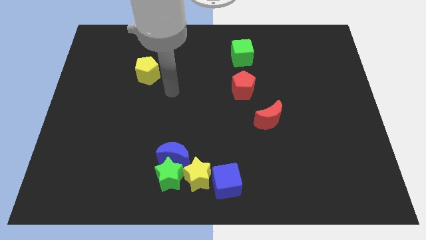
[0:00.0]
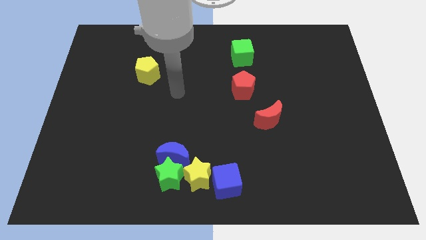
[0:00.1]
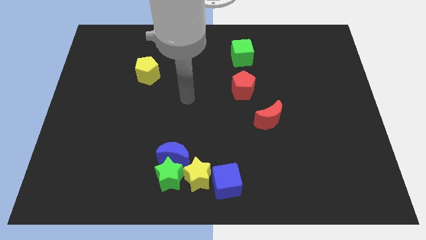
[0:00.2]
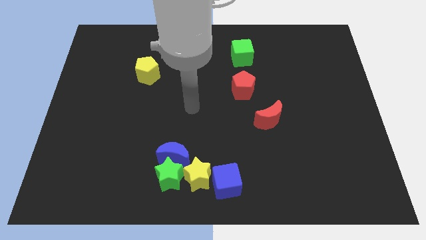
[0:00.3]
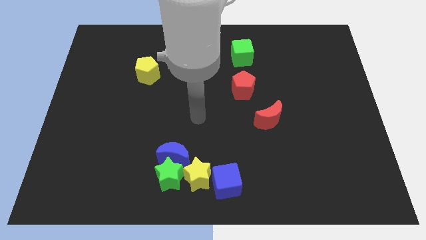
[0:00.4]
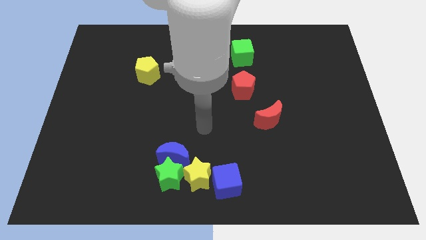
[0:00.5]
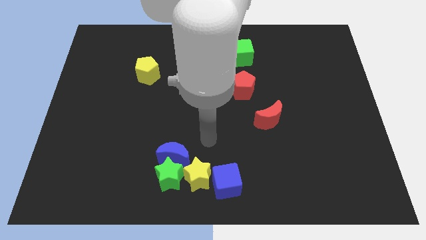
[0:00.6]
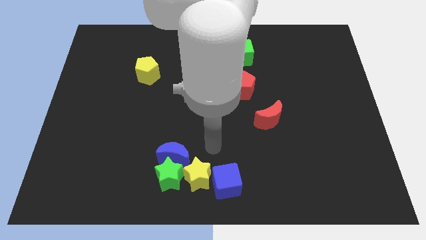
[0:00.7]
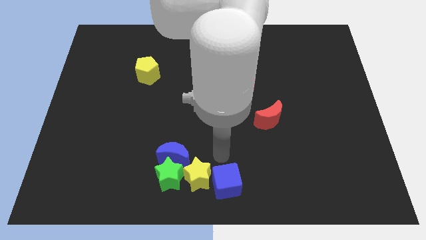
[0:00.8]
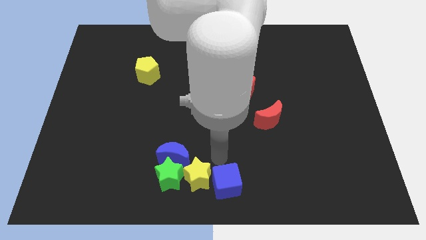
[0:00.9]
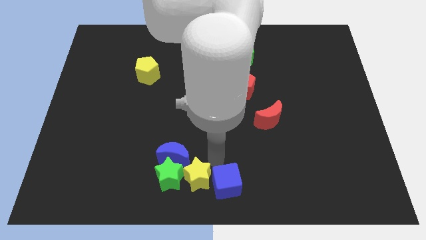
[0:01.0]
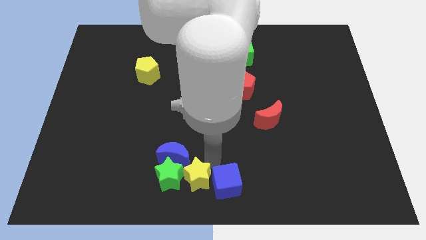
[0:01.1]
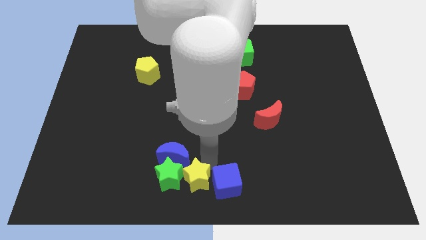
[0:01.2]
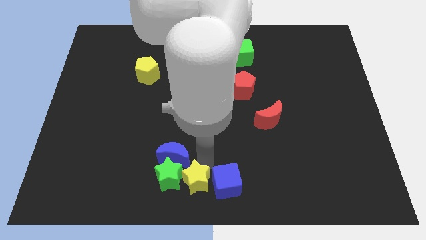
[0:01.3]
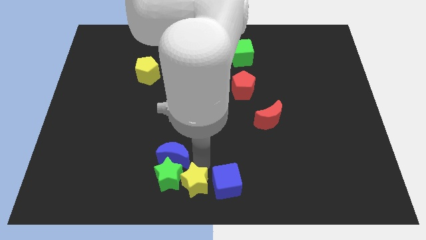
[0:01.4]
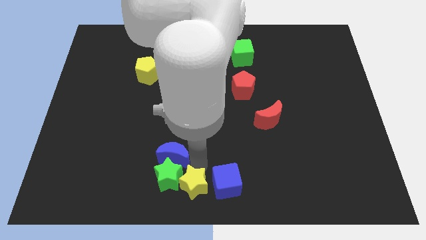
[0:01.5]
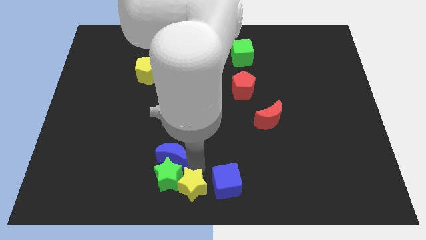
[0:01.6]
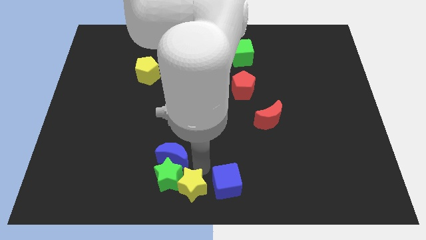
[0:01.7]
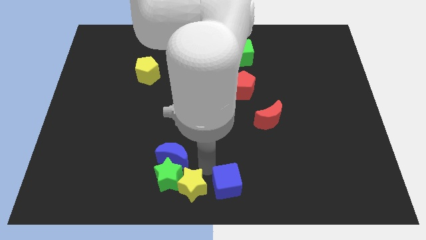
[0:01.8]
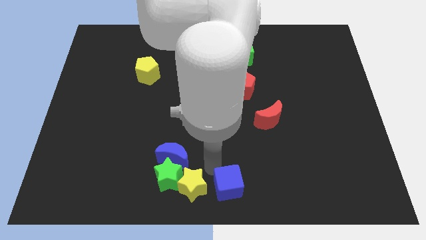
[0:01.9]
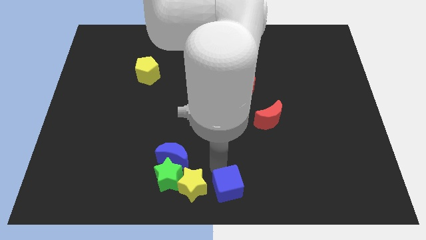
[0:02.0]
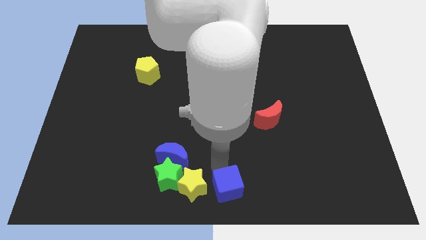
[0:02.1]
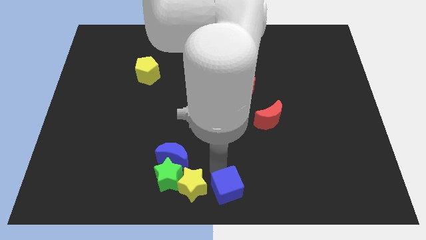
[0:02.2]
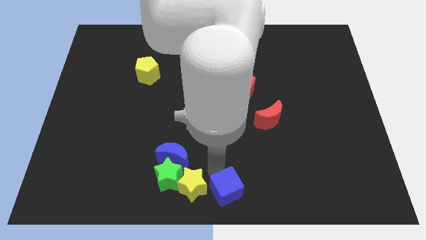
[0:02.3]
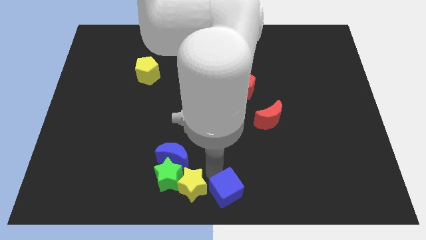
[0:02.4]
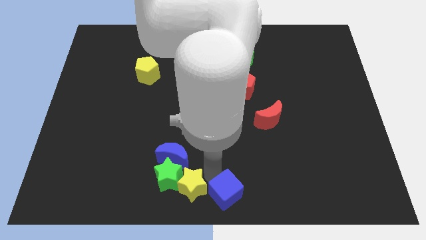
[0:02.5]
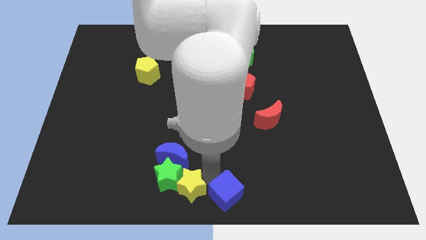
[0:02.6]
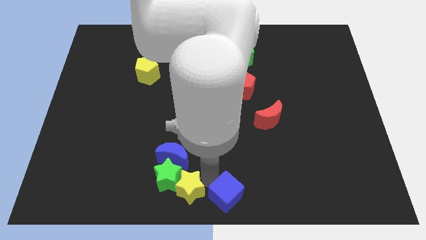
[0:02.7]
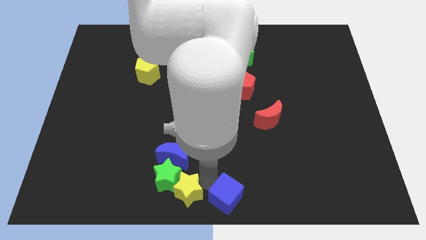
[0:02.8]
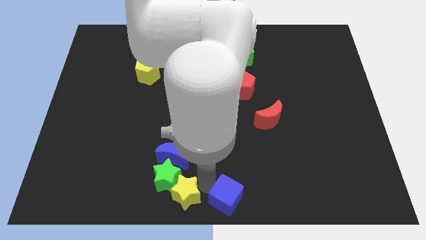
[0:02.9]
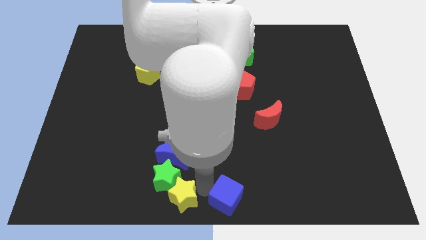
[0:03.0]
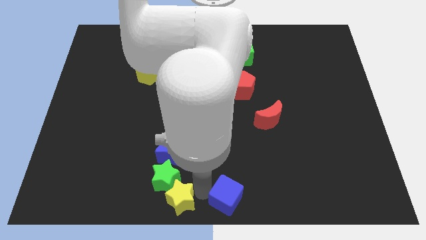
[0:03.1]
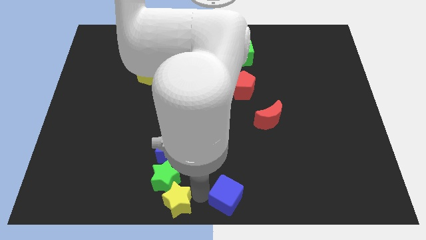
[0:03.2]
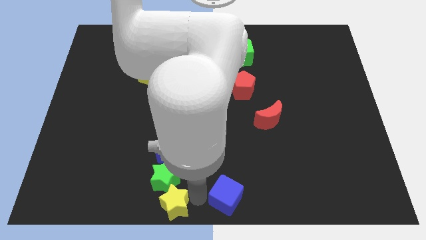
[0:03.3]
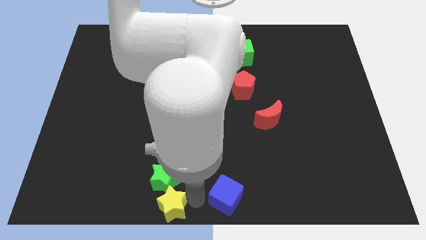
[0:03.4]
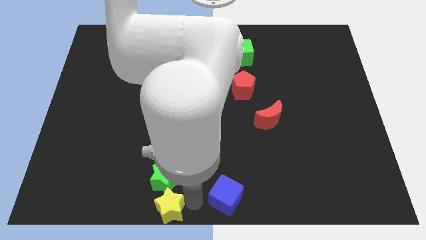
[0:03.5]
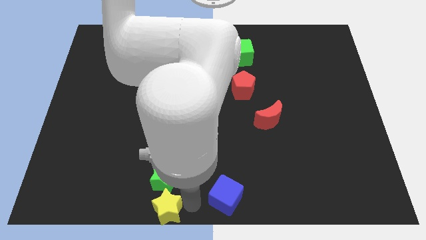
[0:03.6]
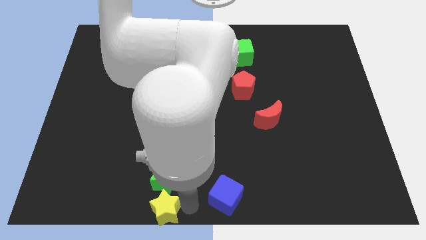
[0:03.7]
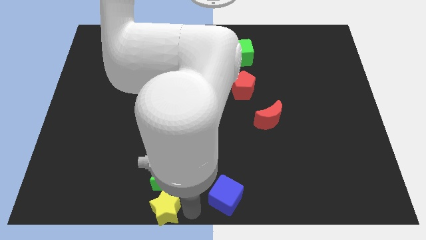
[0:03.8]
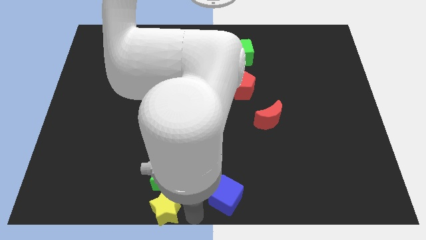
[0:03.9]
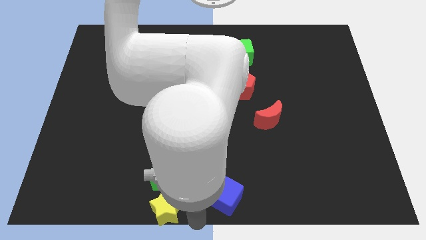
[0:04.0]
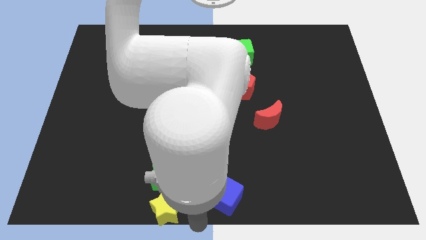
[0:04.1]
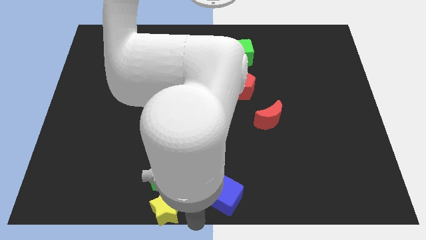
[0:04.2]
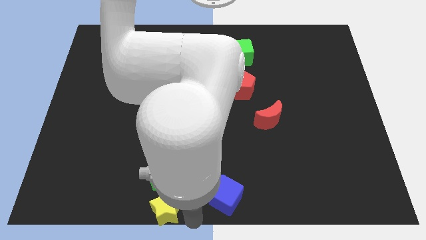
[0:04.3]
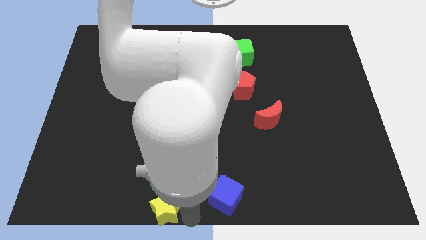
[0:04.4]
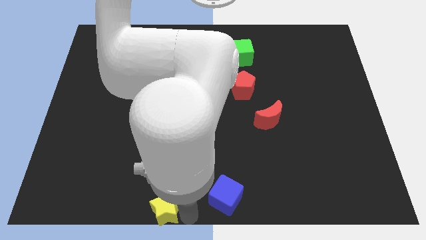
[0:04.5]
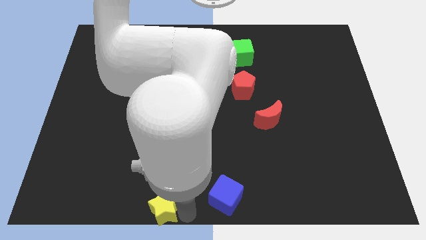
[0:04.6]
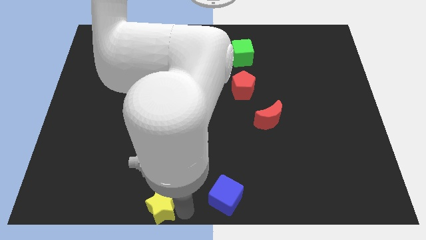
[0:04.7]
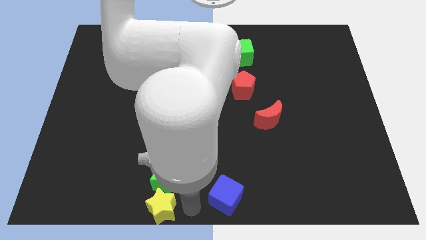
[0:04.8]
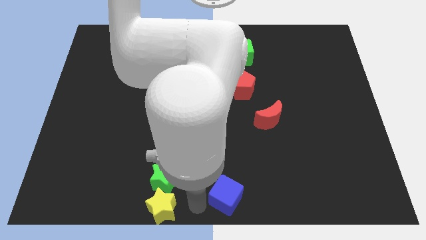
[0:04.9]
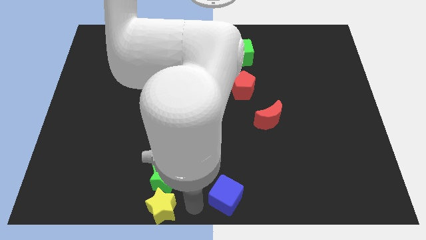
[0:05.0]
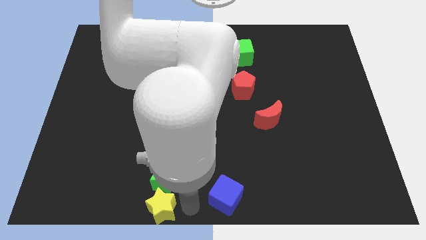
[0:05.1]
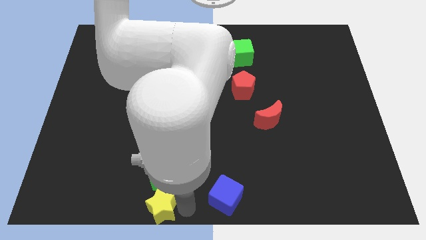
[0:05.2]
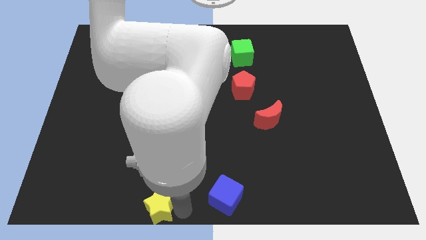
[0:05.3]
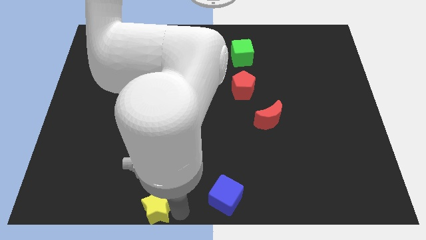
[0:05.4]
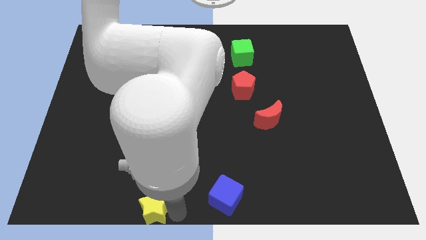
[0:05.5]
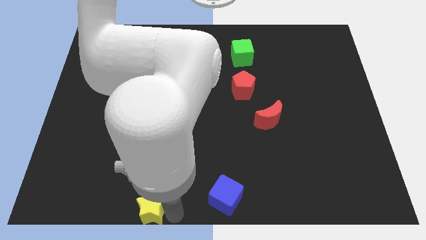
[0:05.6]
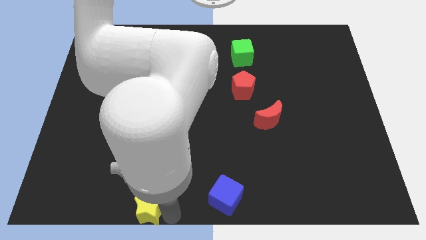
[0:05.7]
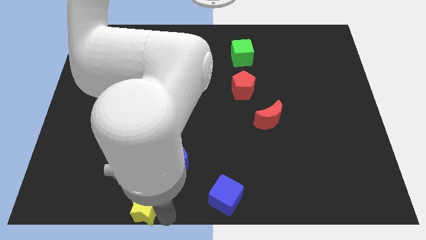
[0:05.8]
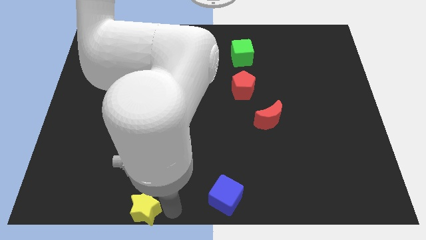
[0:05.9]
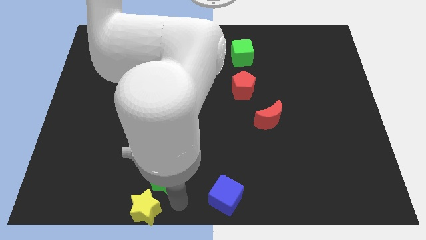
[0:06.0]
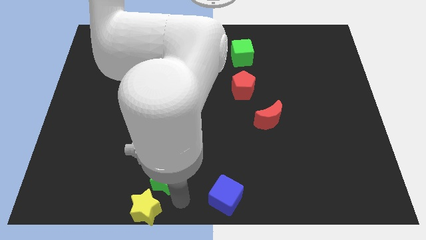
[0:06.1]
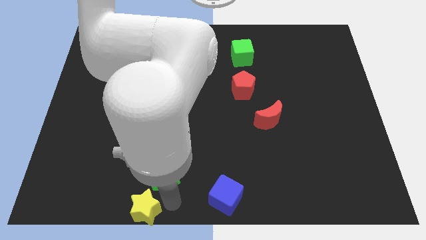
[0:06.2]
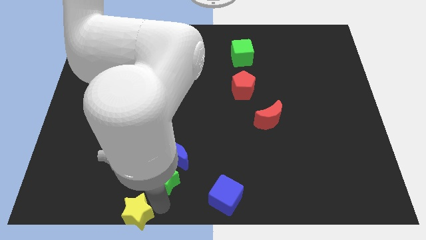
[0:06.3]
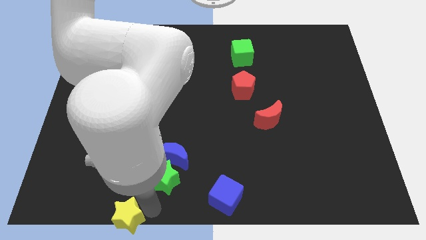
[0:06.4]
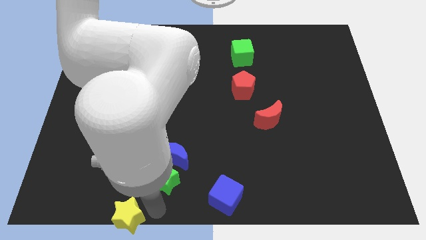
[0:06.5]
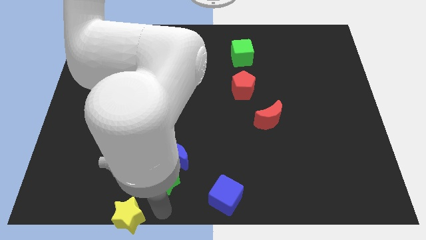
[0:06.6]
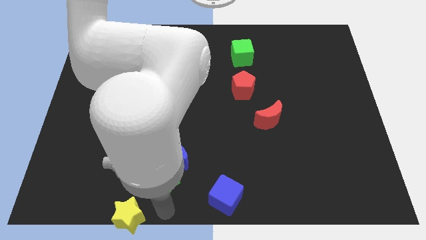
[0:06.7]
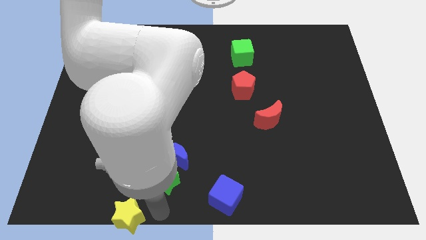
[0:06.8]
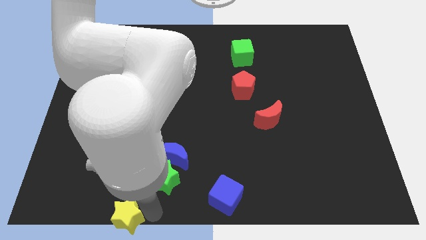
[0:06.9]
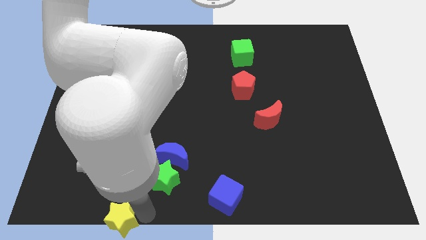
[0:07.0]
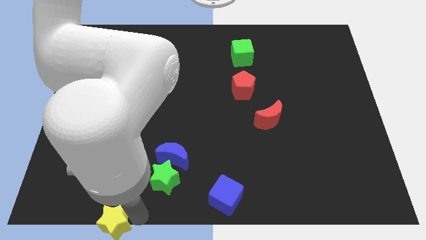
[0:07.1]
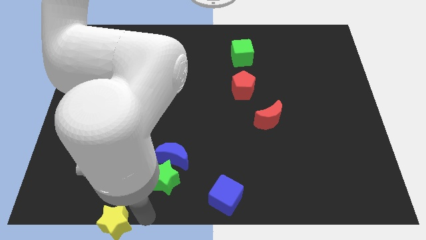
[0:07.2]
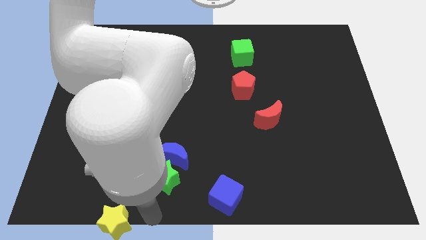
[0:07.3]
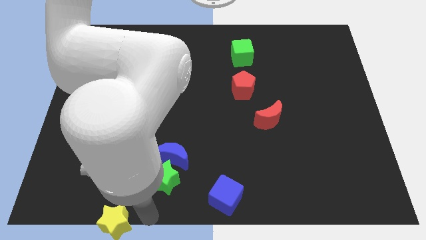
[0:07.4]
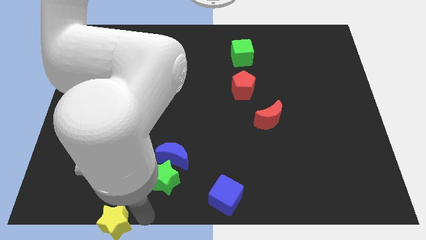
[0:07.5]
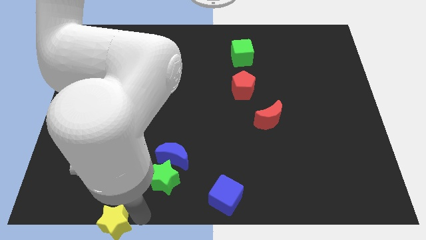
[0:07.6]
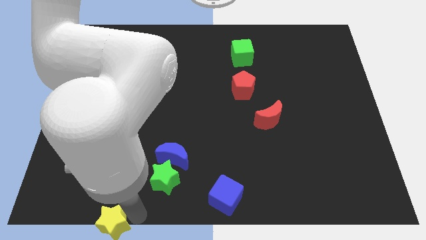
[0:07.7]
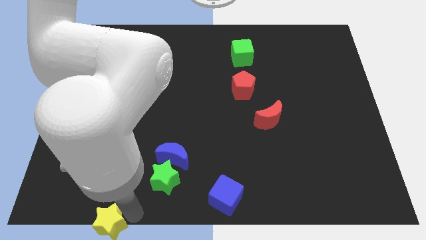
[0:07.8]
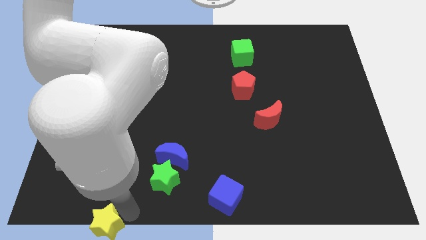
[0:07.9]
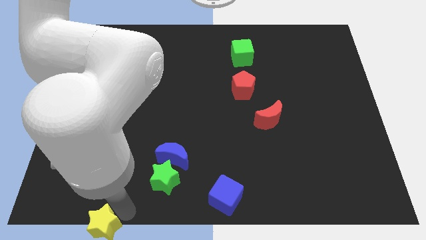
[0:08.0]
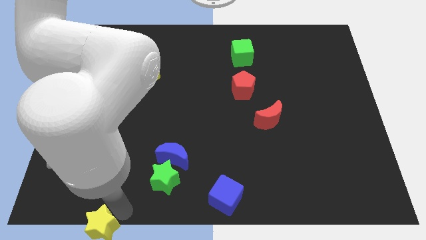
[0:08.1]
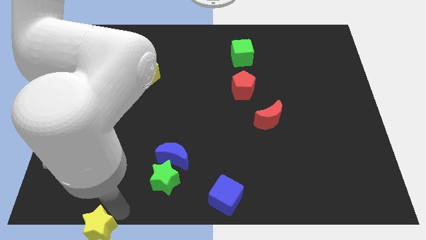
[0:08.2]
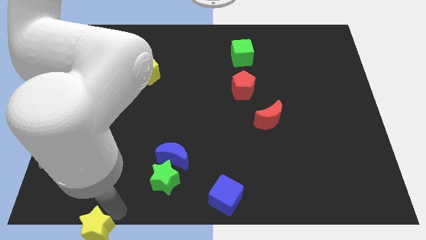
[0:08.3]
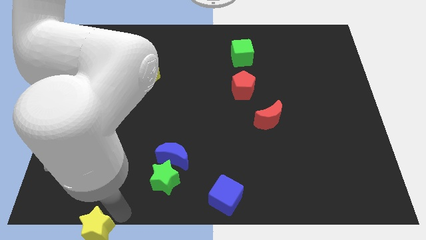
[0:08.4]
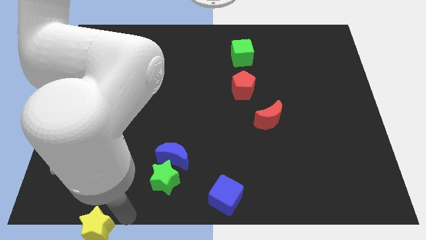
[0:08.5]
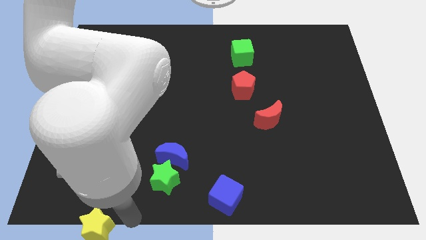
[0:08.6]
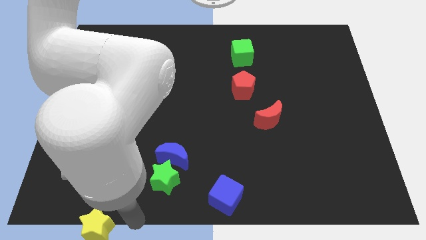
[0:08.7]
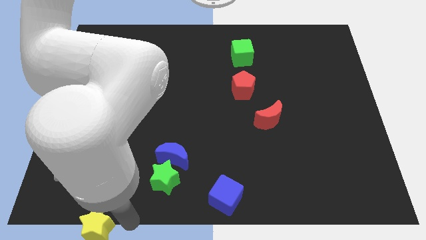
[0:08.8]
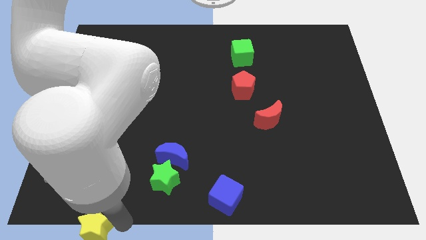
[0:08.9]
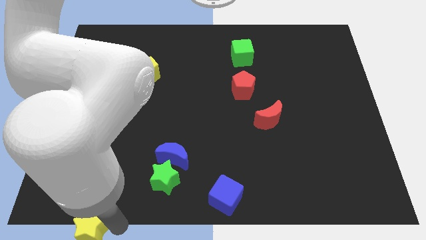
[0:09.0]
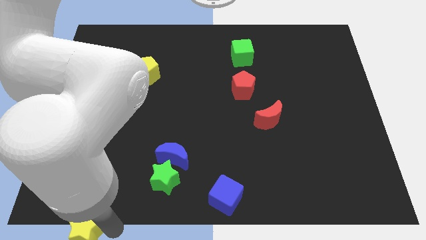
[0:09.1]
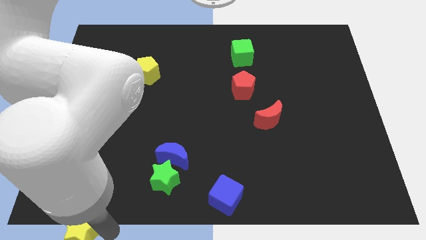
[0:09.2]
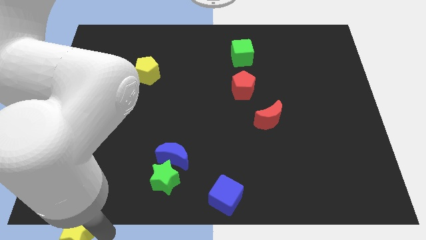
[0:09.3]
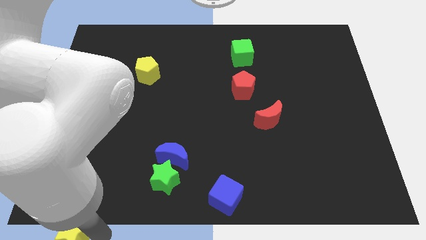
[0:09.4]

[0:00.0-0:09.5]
slide the yellow star to the lower left corner
